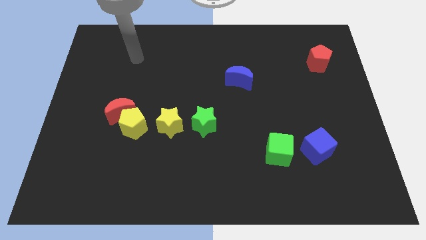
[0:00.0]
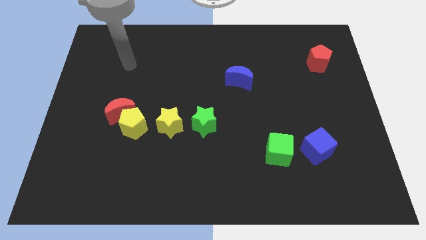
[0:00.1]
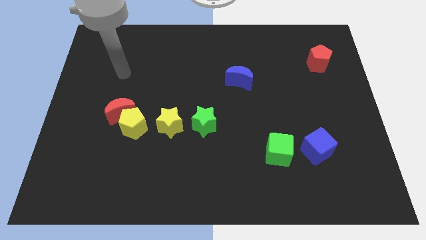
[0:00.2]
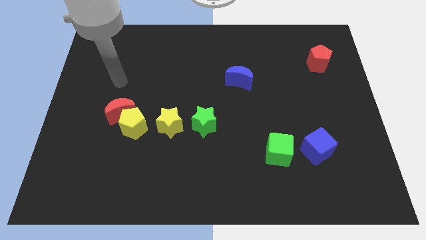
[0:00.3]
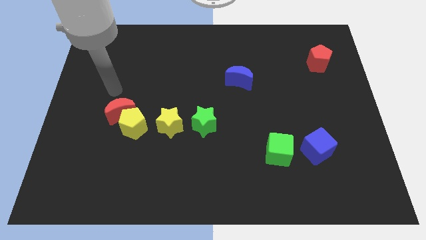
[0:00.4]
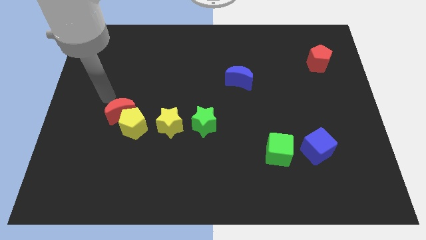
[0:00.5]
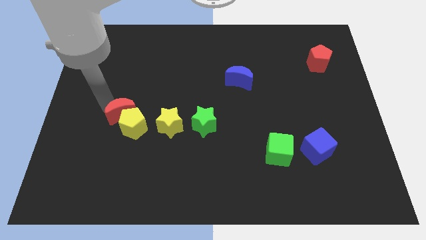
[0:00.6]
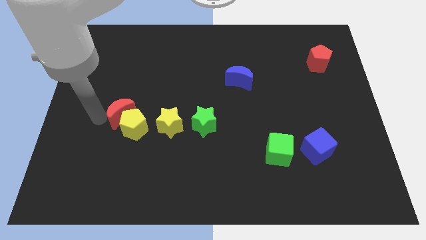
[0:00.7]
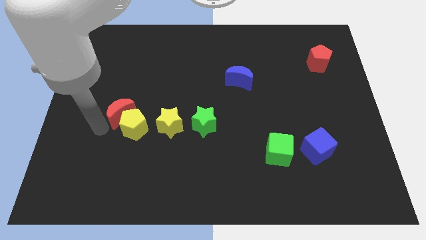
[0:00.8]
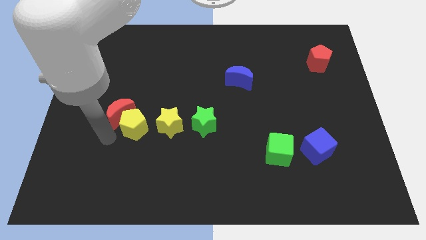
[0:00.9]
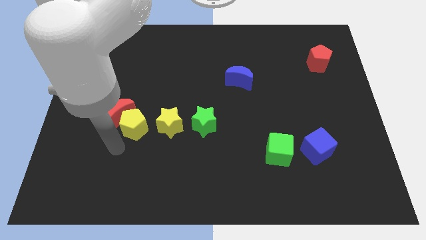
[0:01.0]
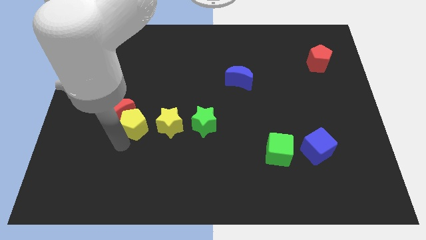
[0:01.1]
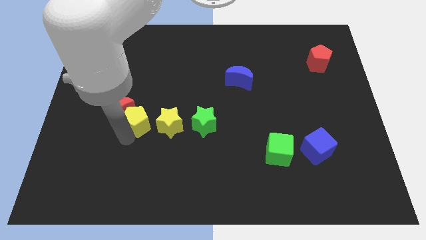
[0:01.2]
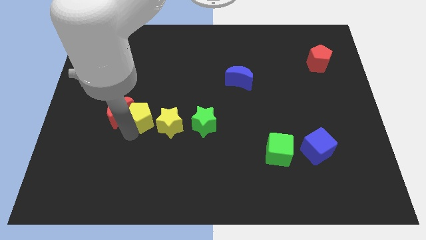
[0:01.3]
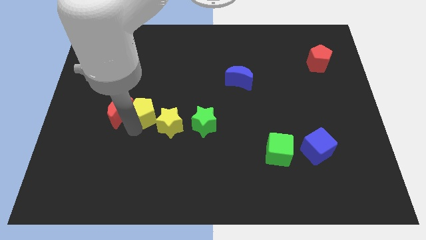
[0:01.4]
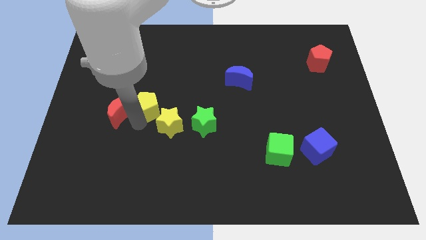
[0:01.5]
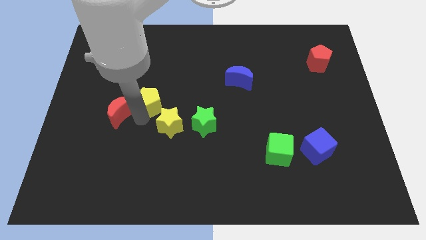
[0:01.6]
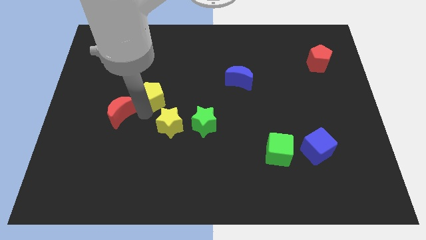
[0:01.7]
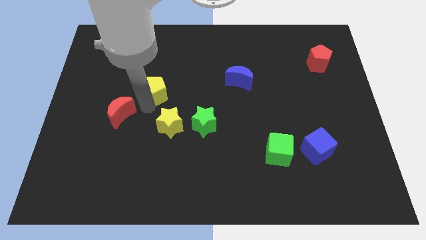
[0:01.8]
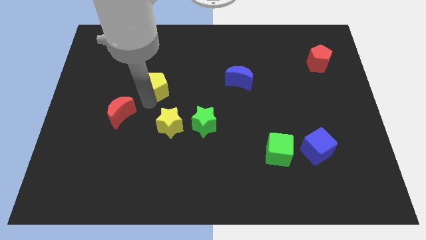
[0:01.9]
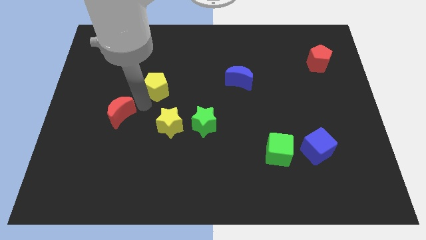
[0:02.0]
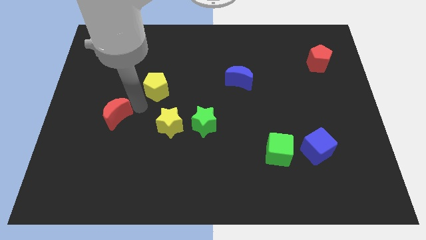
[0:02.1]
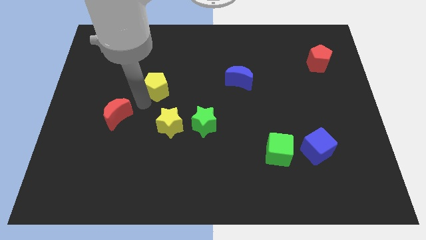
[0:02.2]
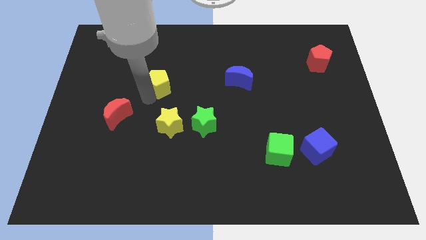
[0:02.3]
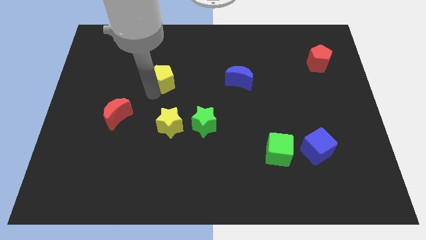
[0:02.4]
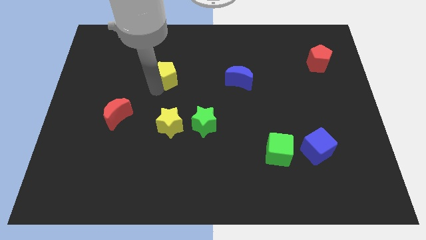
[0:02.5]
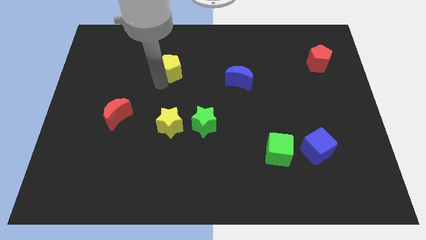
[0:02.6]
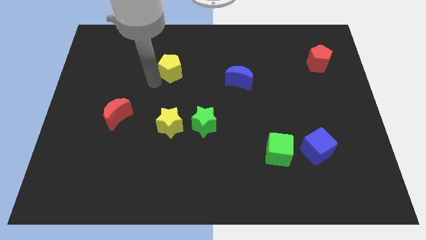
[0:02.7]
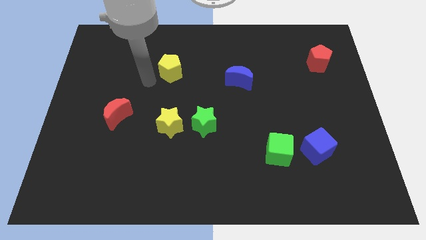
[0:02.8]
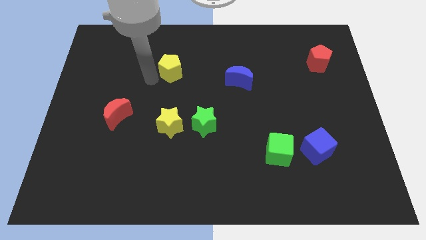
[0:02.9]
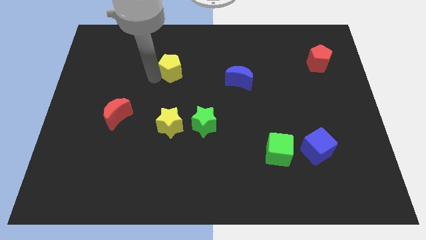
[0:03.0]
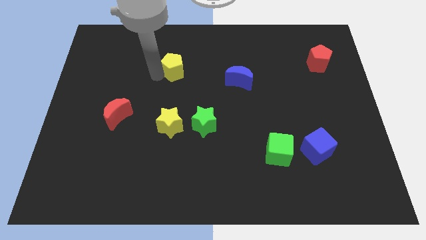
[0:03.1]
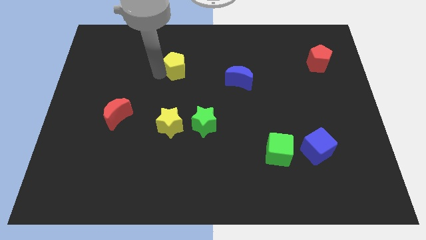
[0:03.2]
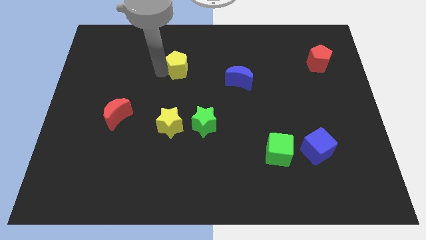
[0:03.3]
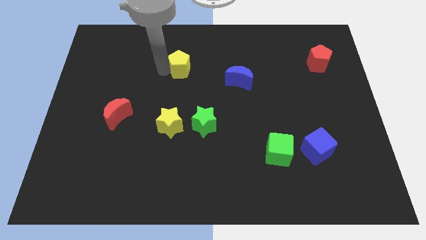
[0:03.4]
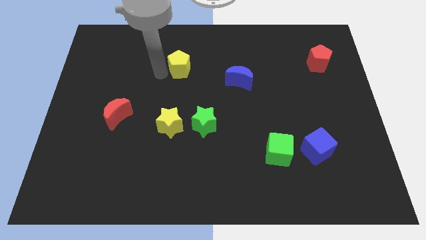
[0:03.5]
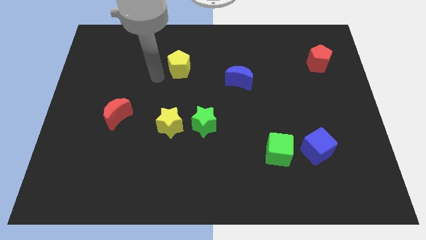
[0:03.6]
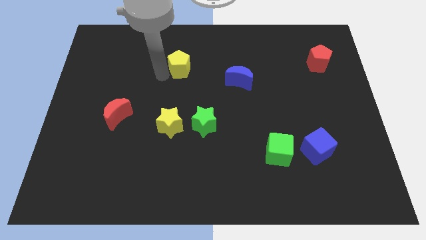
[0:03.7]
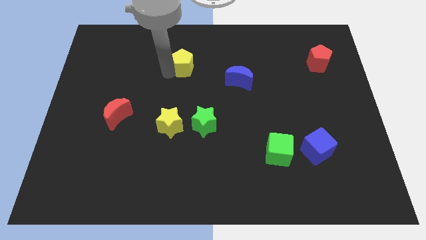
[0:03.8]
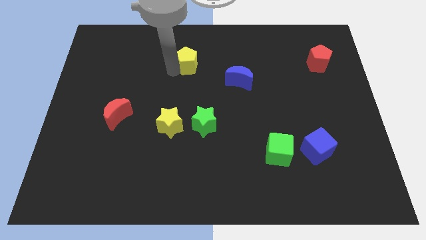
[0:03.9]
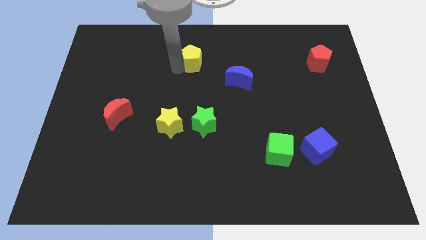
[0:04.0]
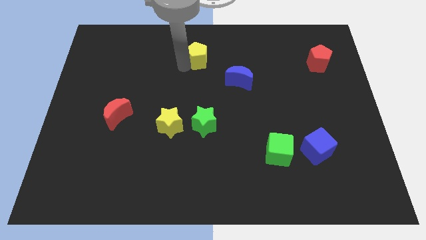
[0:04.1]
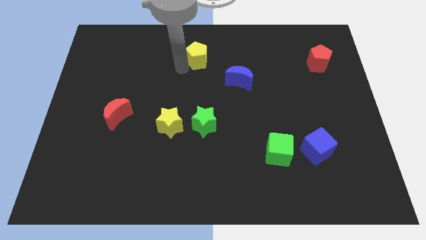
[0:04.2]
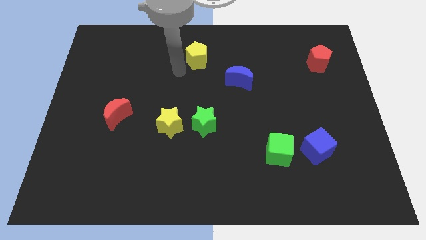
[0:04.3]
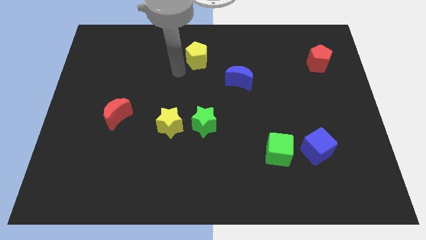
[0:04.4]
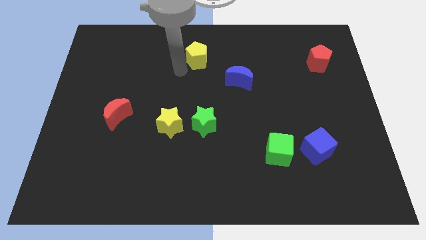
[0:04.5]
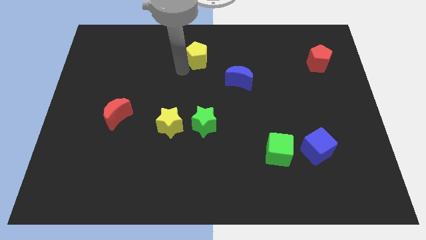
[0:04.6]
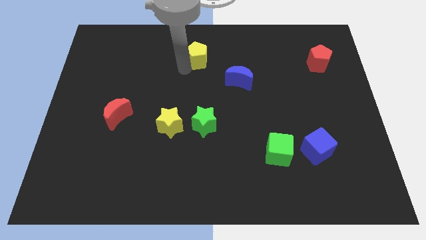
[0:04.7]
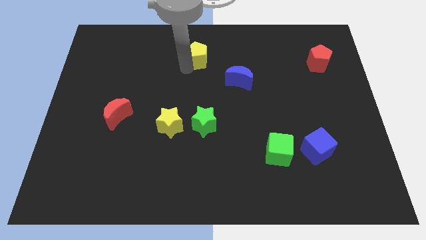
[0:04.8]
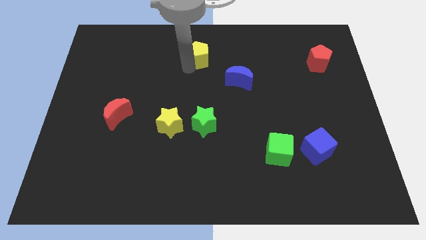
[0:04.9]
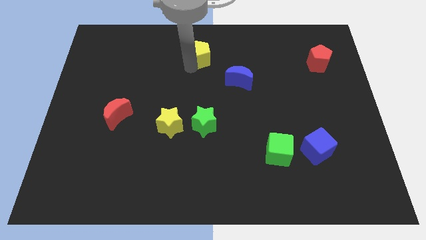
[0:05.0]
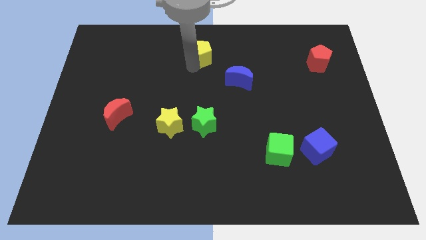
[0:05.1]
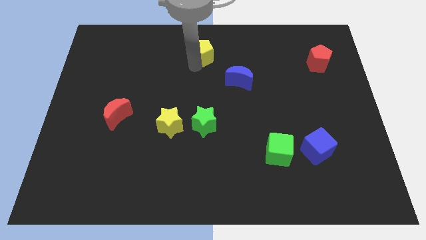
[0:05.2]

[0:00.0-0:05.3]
push the yellow pentagon to the towards your base

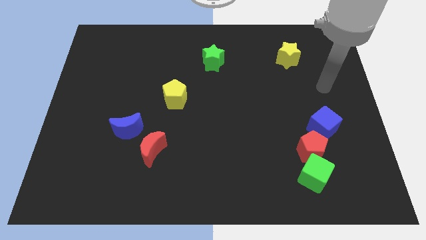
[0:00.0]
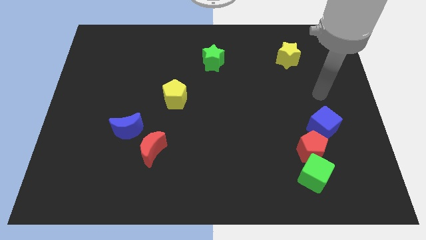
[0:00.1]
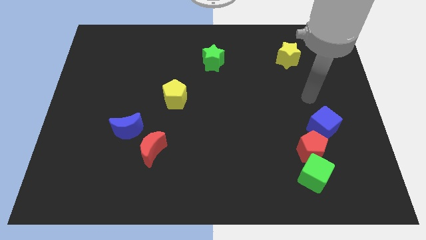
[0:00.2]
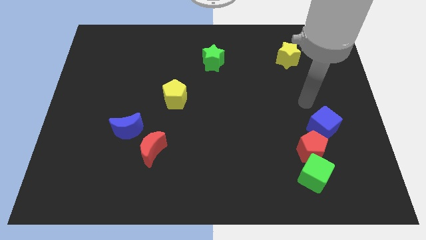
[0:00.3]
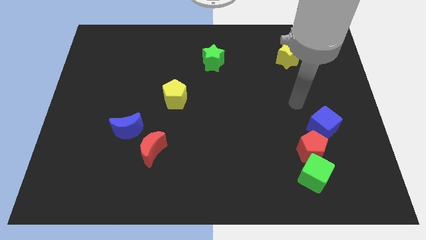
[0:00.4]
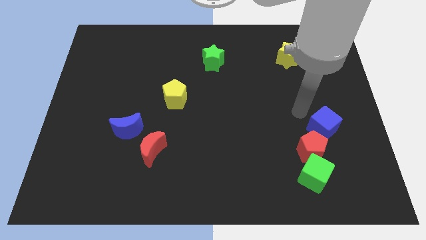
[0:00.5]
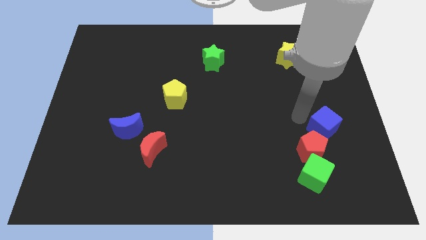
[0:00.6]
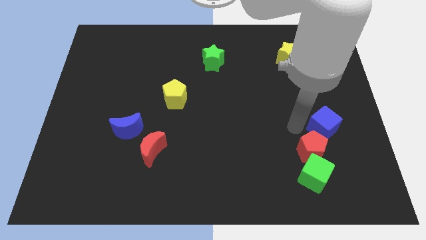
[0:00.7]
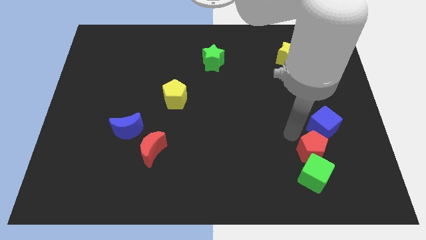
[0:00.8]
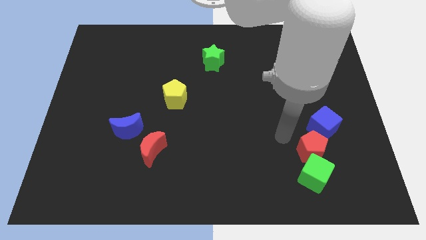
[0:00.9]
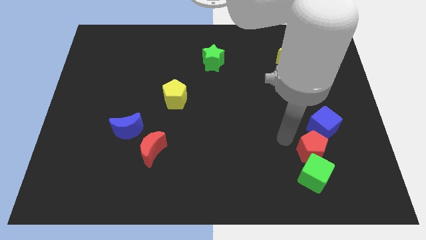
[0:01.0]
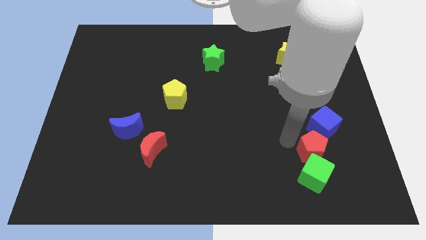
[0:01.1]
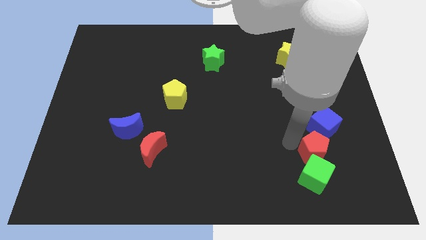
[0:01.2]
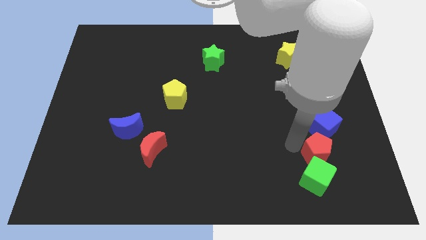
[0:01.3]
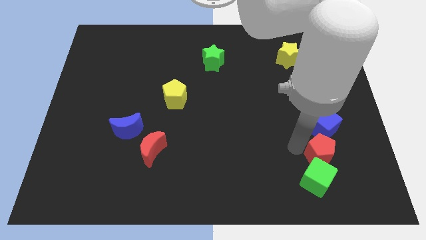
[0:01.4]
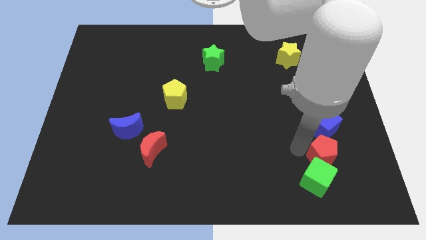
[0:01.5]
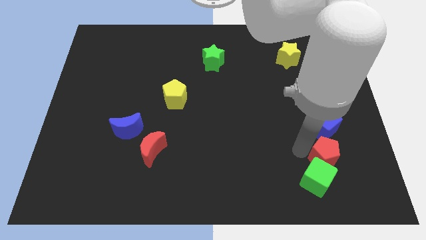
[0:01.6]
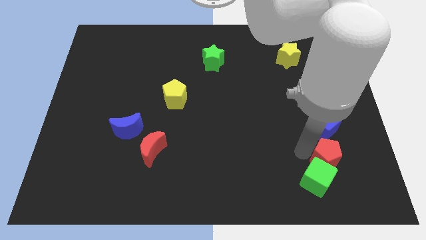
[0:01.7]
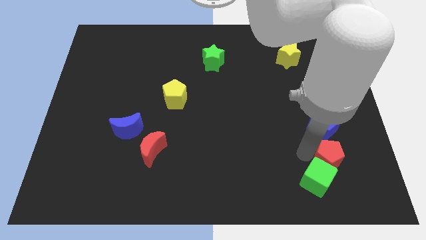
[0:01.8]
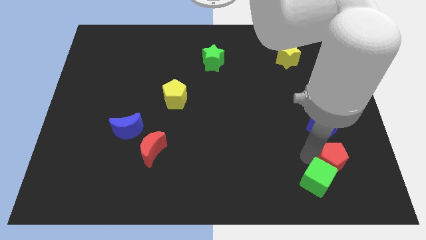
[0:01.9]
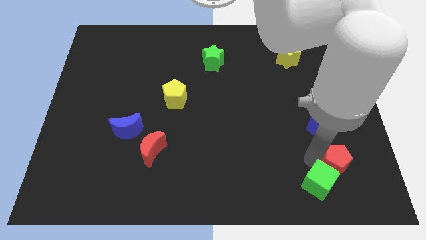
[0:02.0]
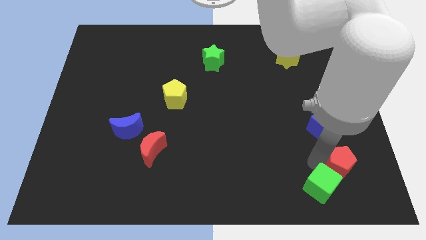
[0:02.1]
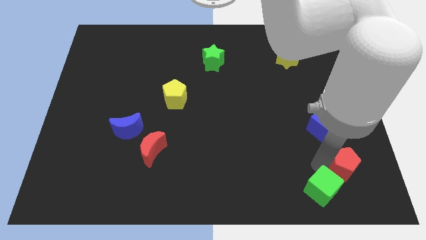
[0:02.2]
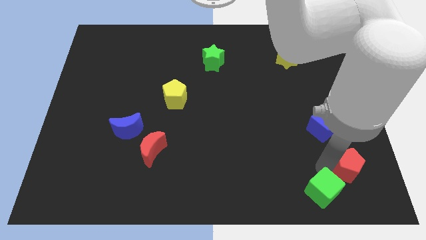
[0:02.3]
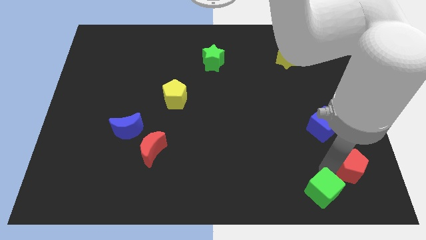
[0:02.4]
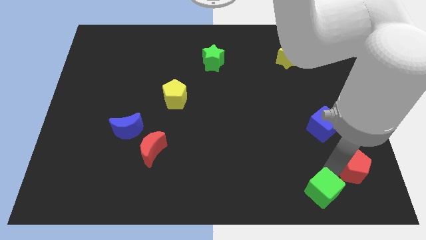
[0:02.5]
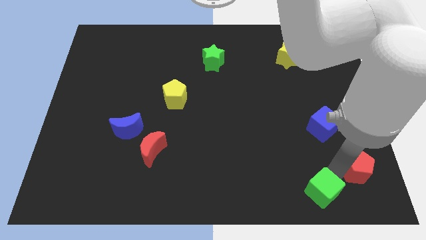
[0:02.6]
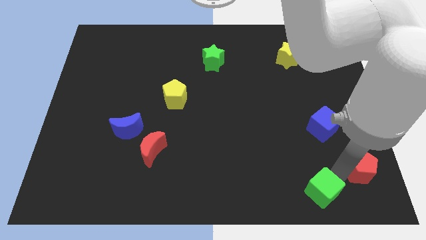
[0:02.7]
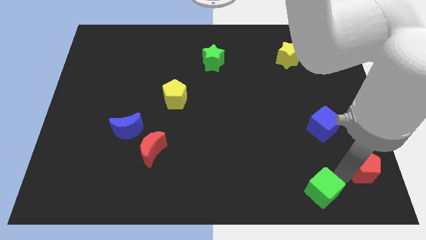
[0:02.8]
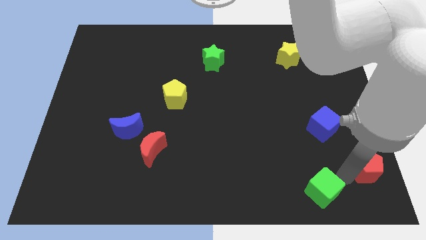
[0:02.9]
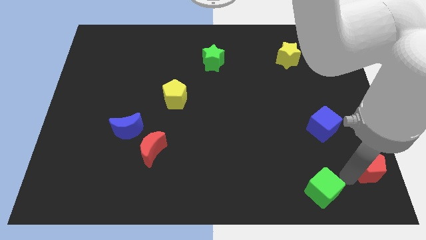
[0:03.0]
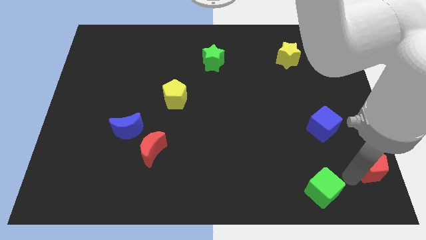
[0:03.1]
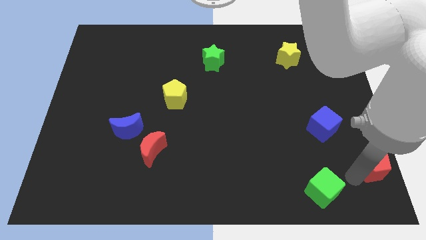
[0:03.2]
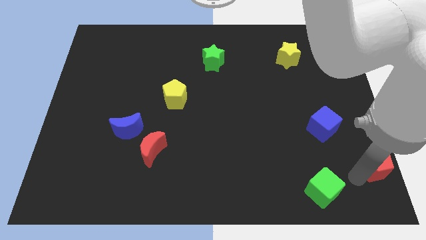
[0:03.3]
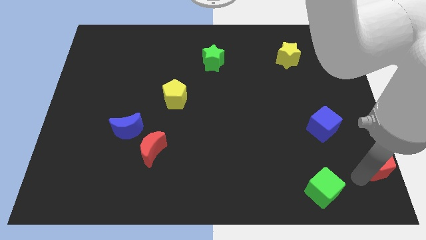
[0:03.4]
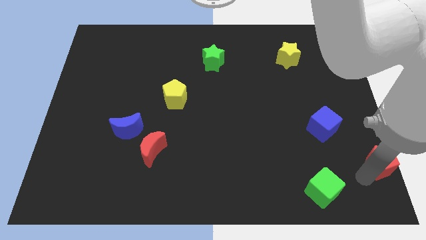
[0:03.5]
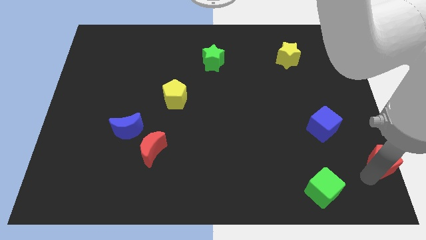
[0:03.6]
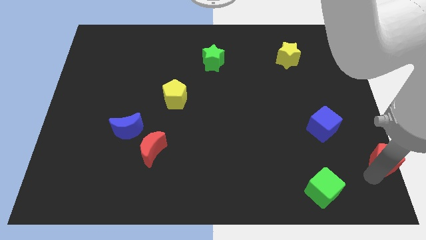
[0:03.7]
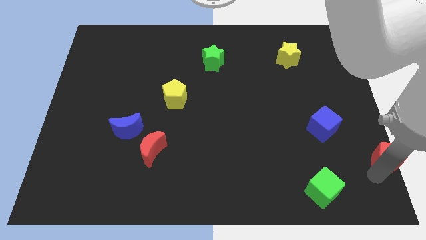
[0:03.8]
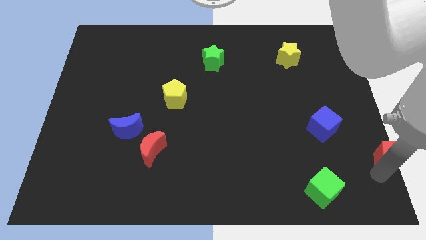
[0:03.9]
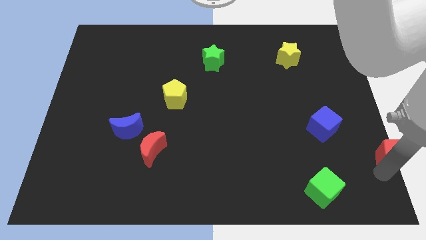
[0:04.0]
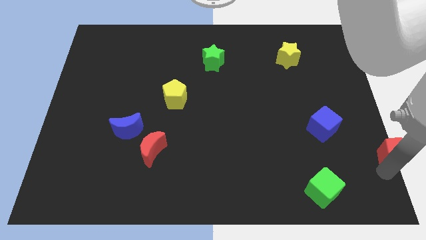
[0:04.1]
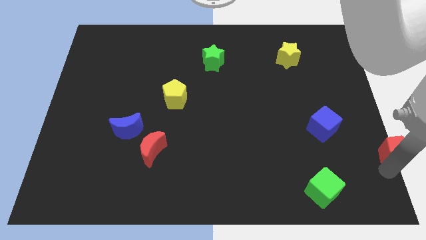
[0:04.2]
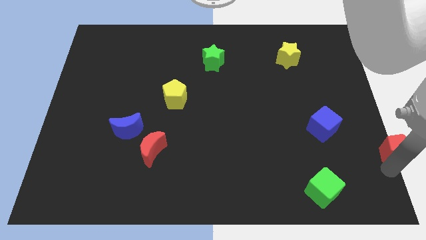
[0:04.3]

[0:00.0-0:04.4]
move the red pentagon to the right side of the board
